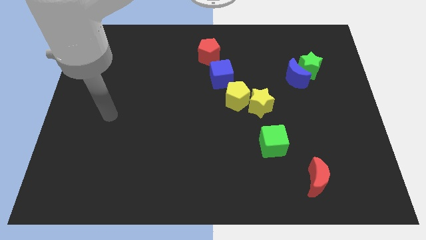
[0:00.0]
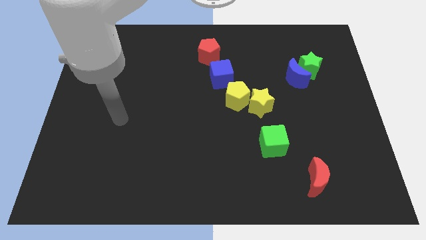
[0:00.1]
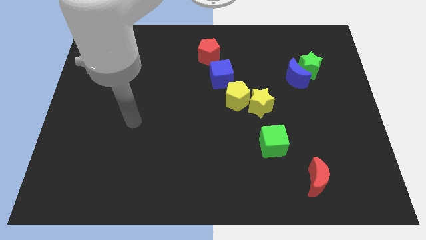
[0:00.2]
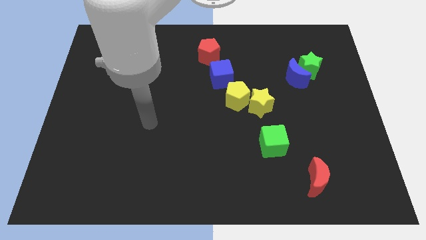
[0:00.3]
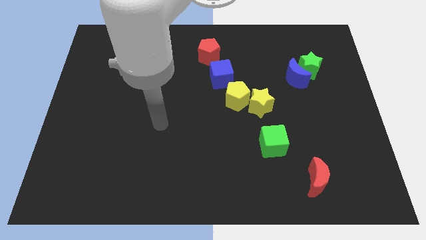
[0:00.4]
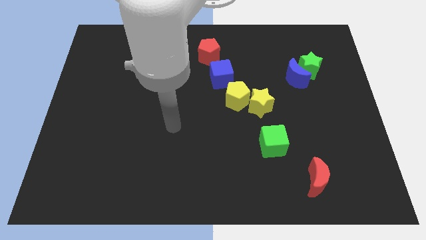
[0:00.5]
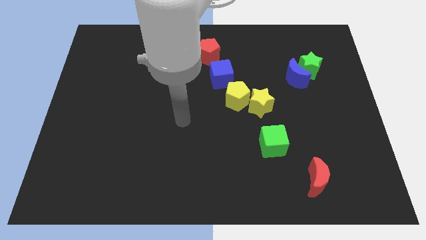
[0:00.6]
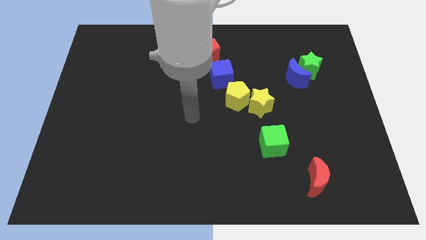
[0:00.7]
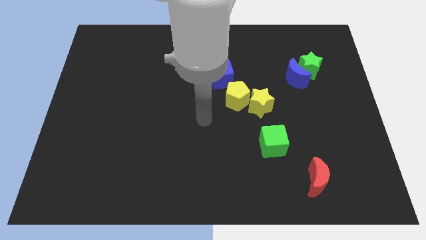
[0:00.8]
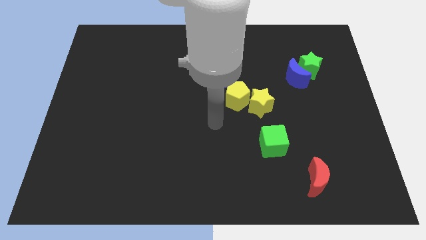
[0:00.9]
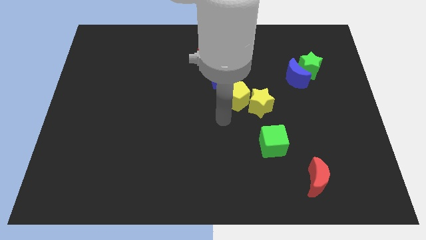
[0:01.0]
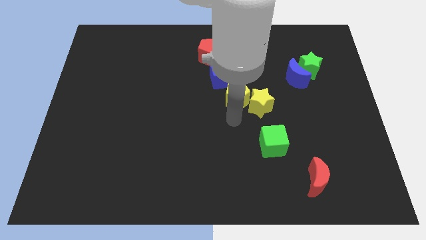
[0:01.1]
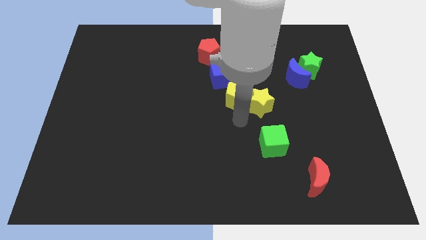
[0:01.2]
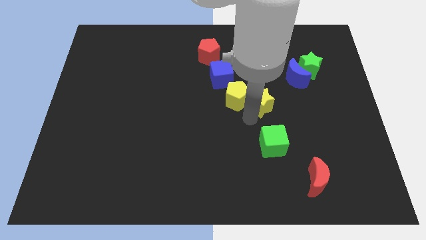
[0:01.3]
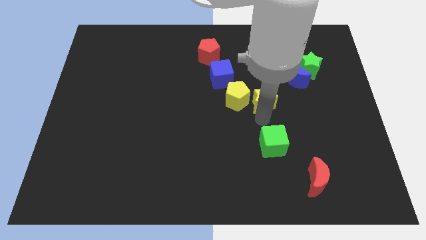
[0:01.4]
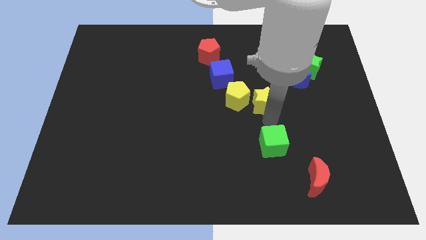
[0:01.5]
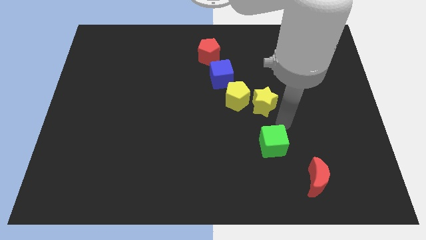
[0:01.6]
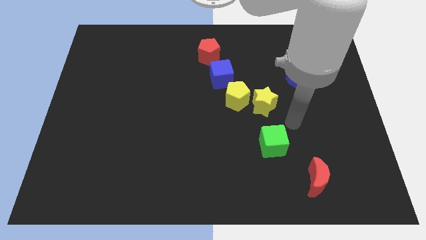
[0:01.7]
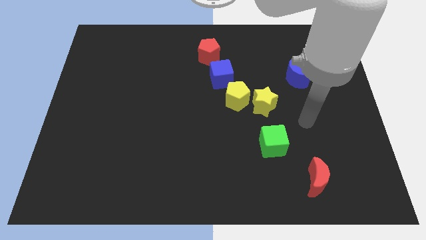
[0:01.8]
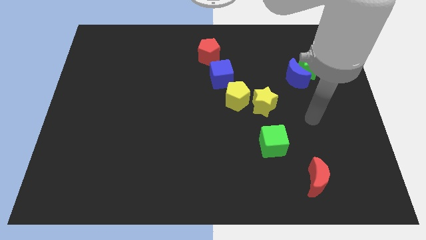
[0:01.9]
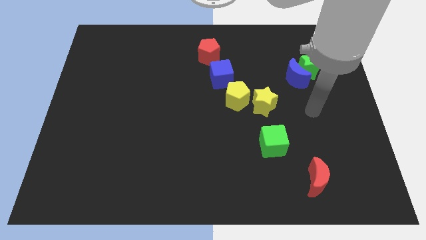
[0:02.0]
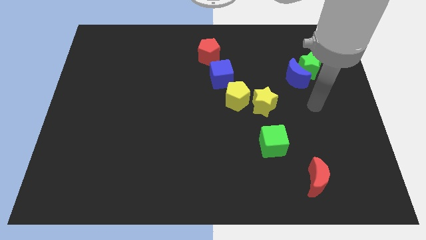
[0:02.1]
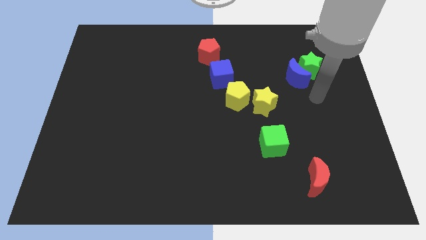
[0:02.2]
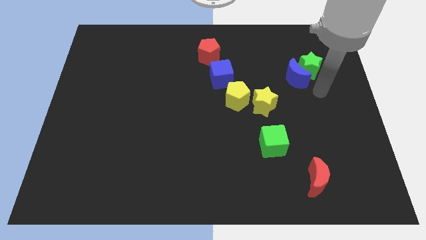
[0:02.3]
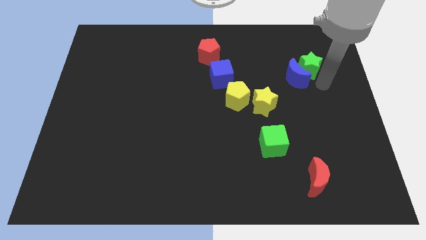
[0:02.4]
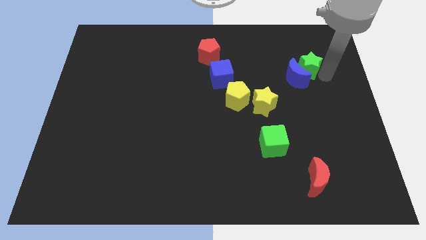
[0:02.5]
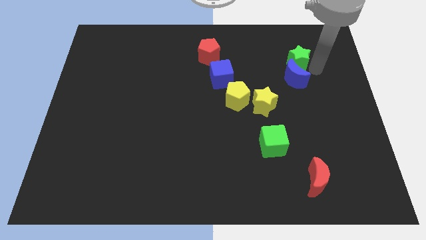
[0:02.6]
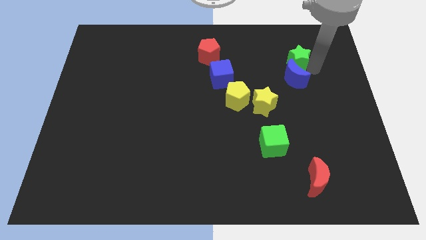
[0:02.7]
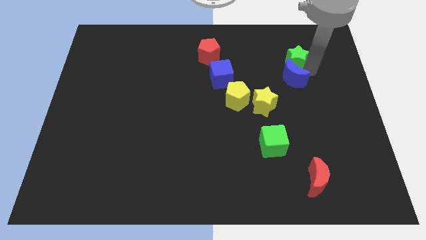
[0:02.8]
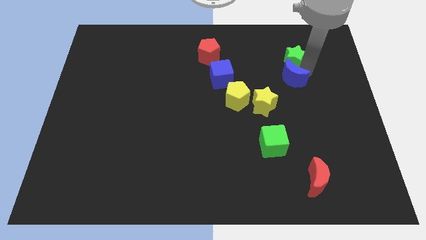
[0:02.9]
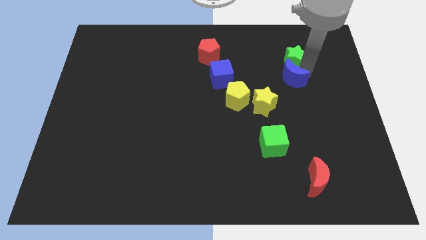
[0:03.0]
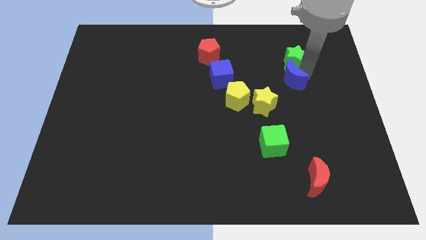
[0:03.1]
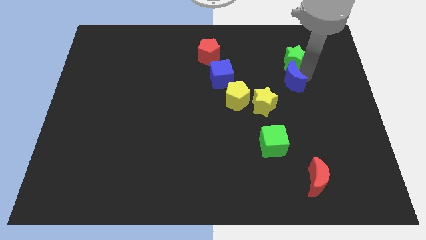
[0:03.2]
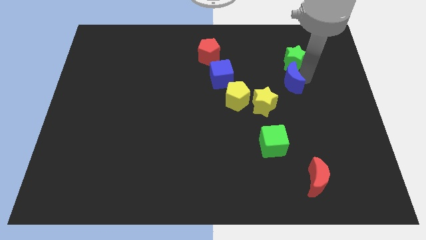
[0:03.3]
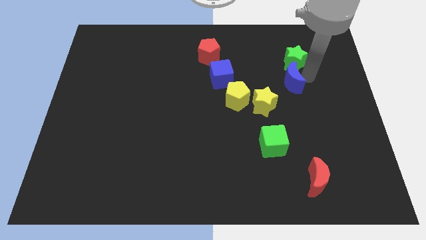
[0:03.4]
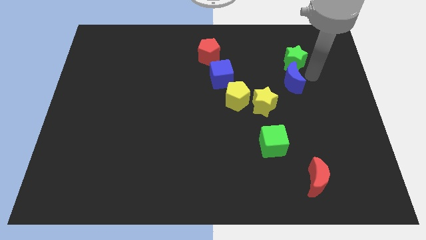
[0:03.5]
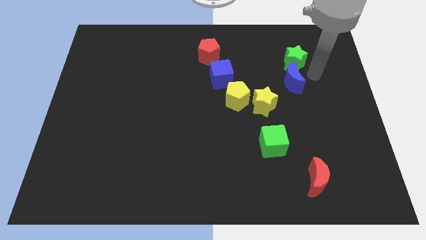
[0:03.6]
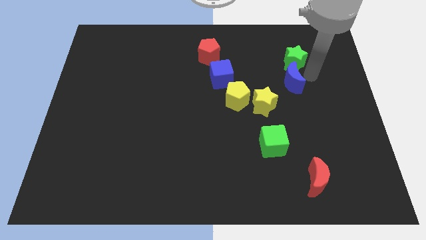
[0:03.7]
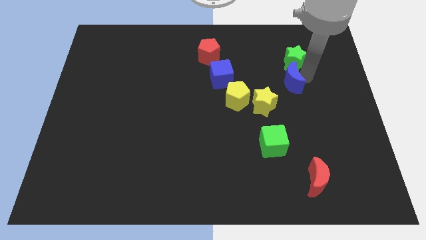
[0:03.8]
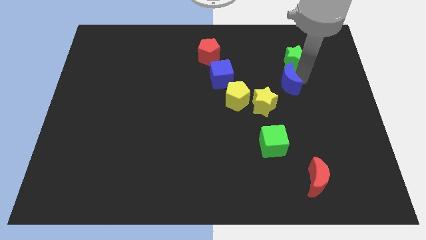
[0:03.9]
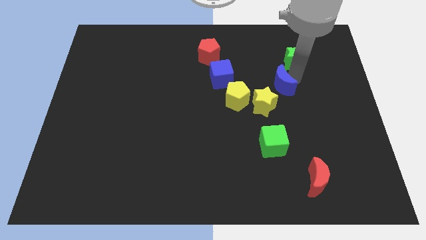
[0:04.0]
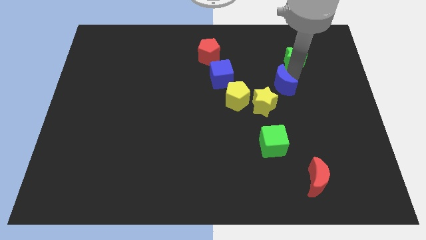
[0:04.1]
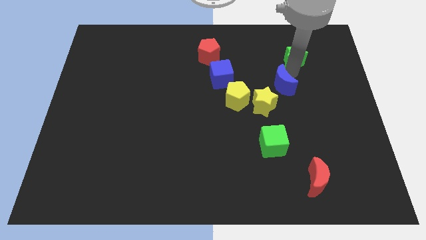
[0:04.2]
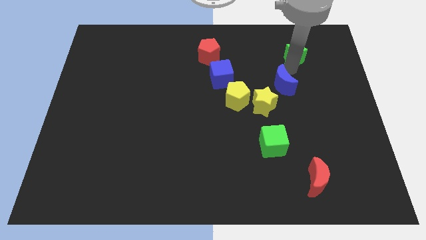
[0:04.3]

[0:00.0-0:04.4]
pull the blue moon apart from the green star

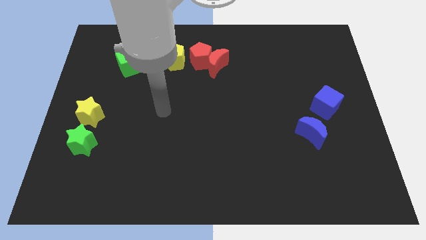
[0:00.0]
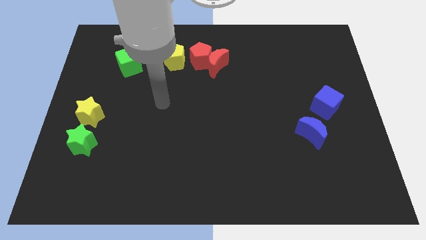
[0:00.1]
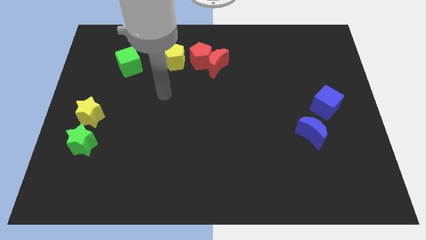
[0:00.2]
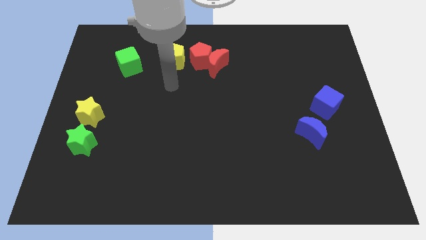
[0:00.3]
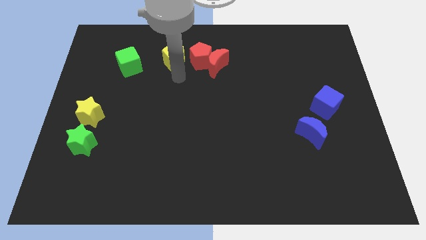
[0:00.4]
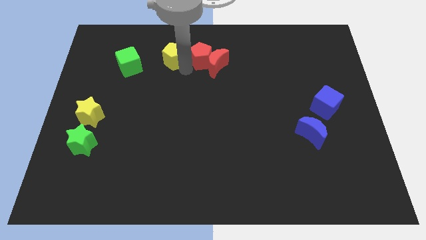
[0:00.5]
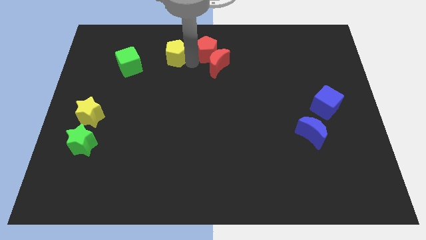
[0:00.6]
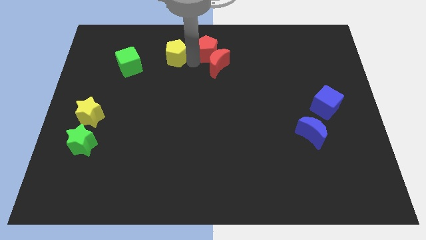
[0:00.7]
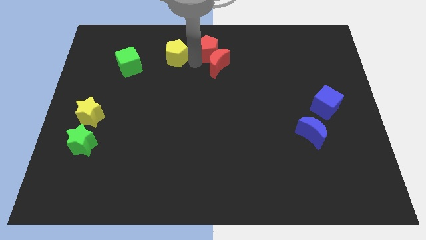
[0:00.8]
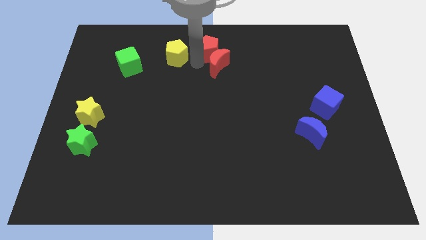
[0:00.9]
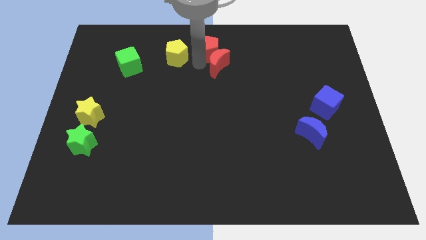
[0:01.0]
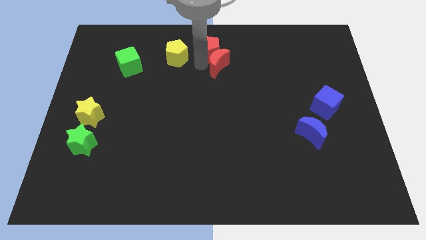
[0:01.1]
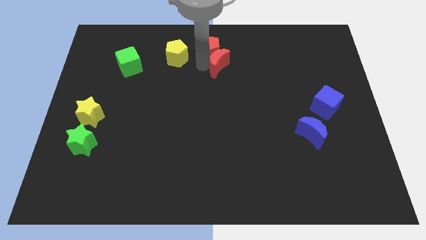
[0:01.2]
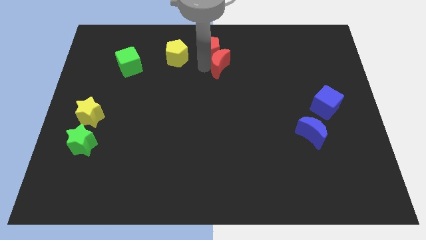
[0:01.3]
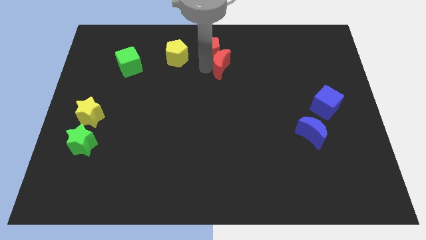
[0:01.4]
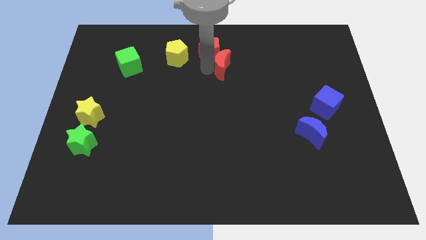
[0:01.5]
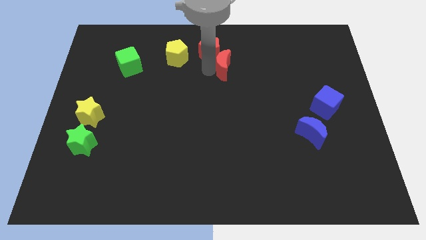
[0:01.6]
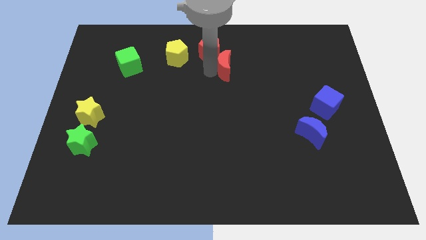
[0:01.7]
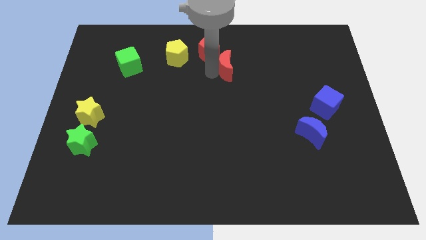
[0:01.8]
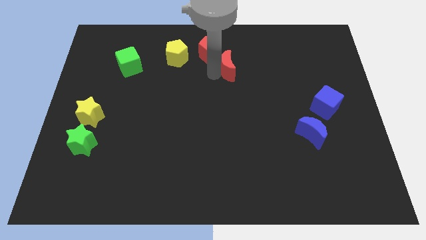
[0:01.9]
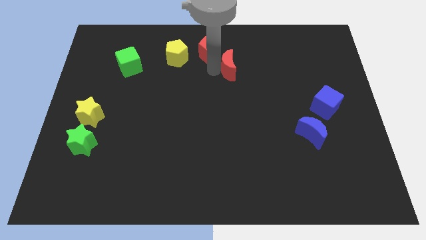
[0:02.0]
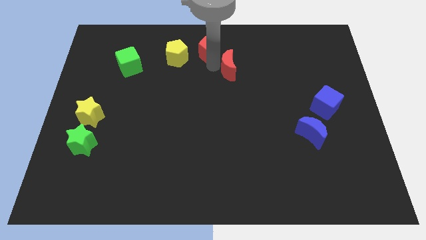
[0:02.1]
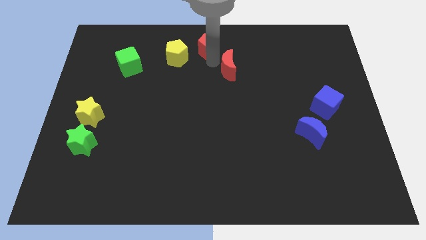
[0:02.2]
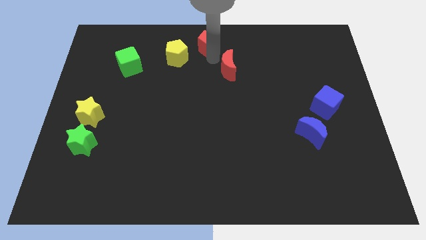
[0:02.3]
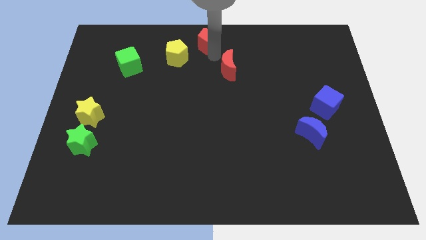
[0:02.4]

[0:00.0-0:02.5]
move the red moon away from the red pentagon

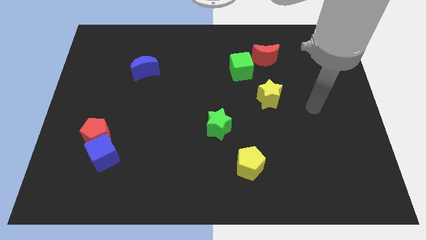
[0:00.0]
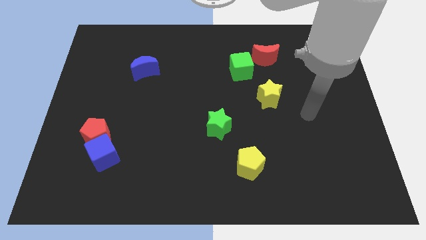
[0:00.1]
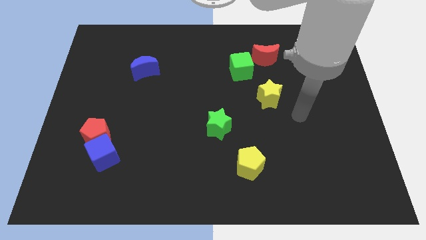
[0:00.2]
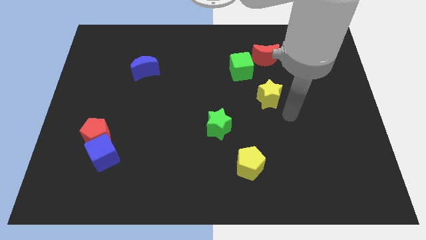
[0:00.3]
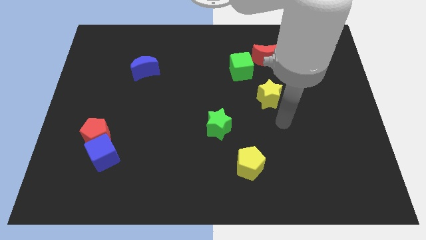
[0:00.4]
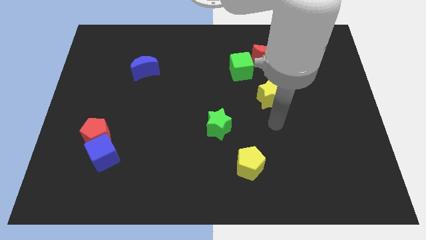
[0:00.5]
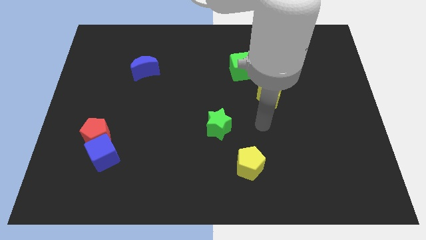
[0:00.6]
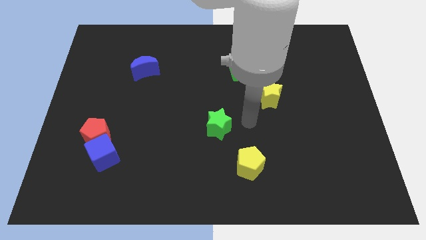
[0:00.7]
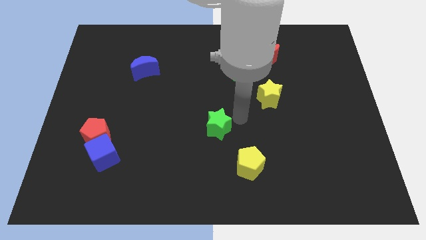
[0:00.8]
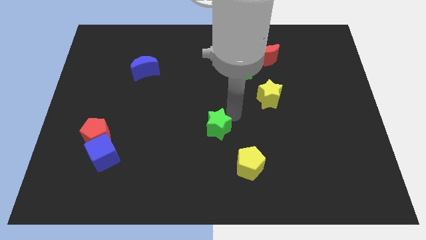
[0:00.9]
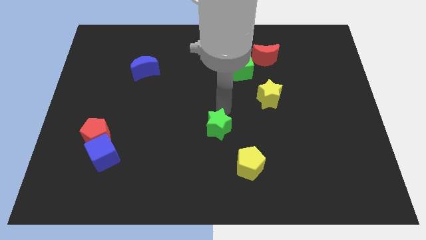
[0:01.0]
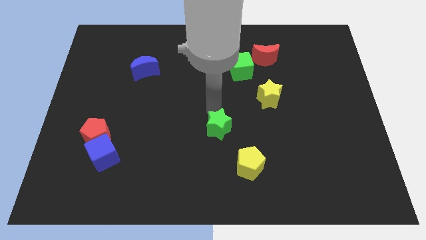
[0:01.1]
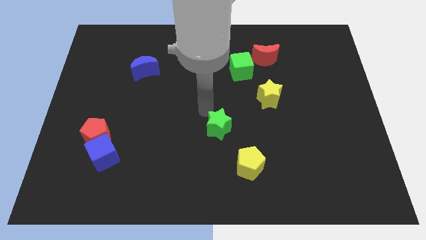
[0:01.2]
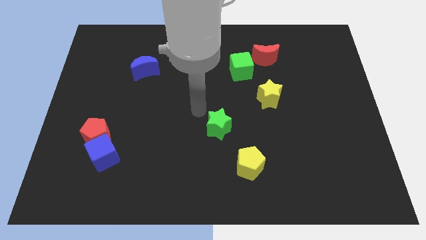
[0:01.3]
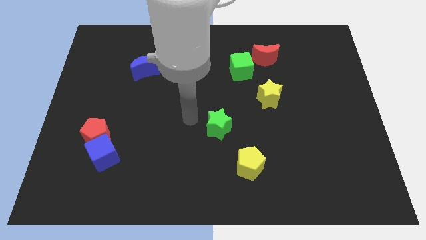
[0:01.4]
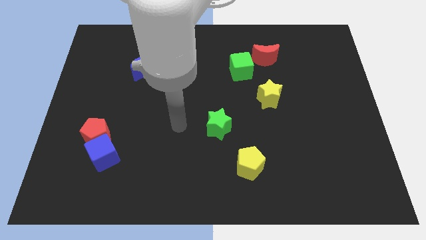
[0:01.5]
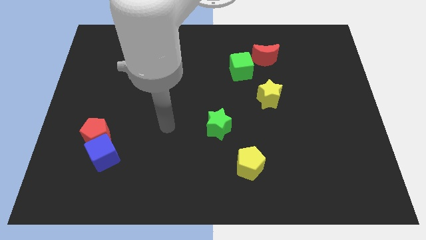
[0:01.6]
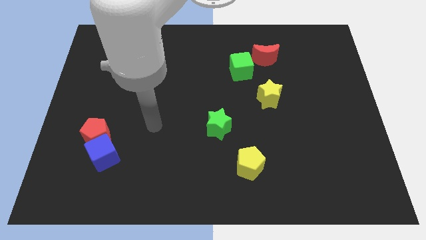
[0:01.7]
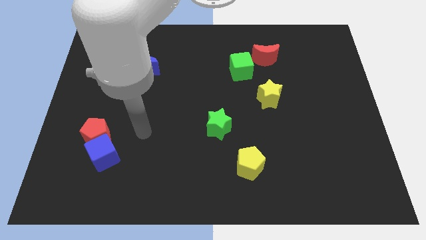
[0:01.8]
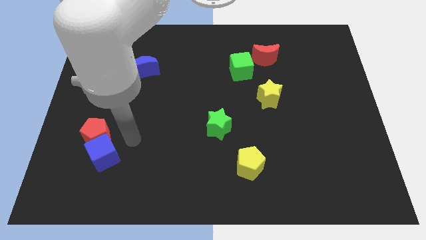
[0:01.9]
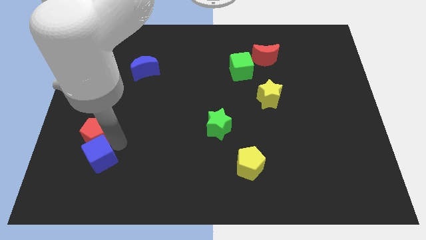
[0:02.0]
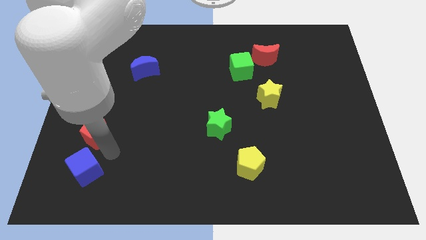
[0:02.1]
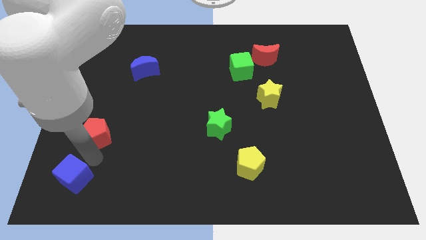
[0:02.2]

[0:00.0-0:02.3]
move the red pentagon away from the blue cube

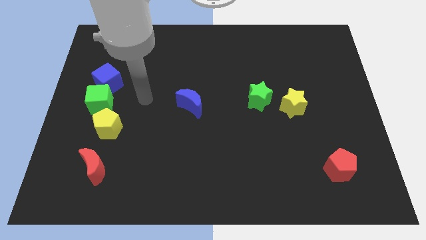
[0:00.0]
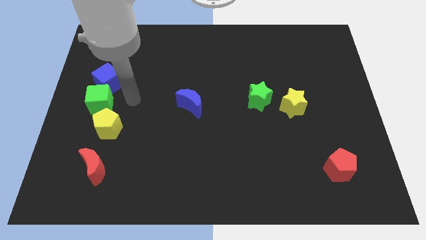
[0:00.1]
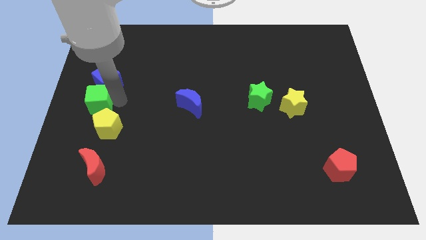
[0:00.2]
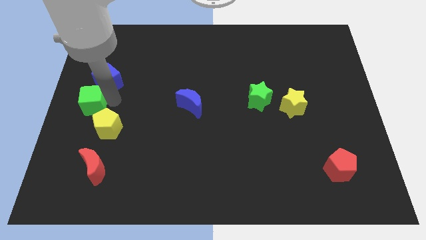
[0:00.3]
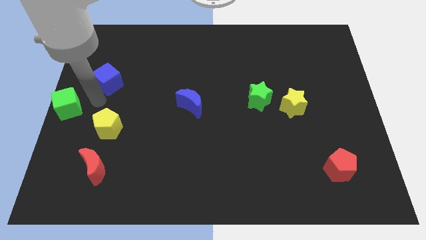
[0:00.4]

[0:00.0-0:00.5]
separate the blue cube from the green cube
